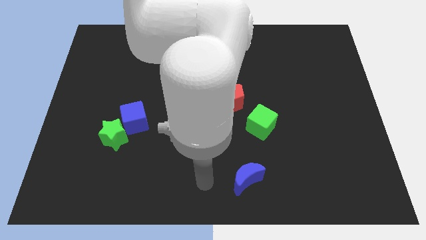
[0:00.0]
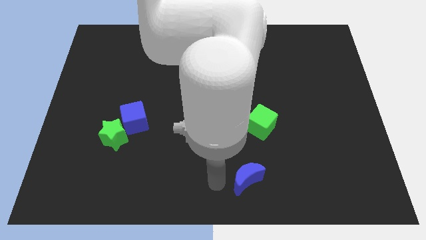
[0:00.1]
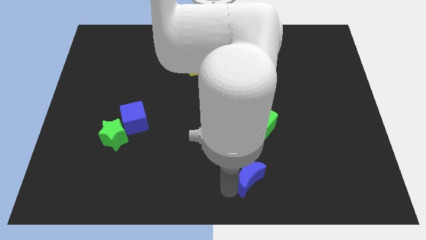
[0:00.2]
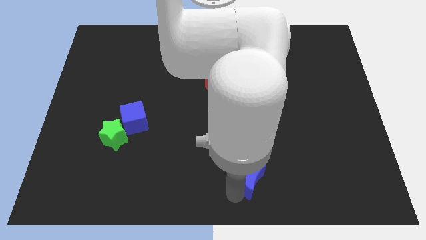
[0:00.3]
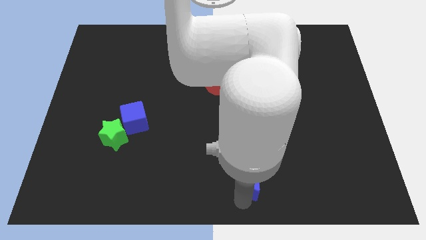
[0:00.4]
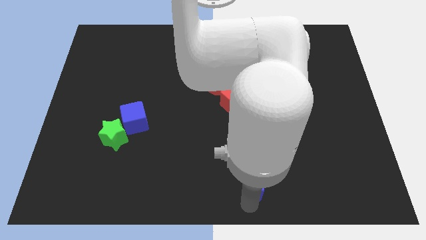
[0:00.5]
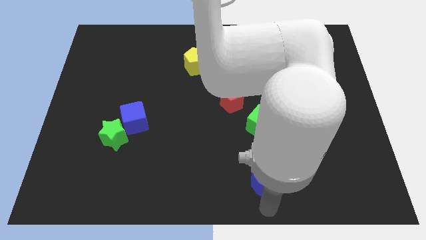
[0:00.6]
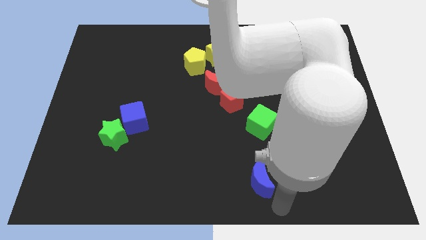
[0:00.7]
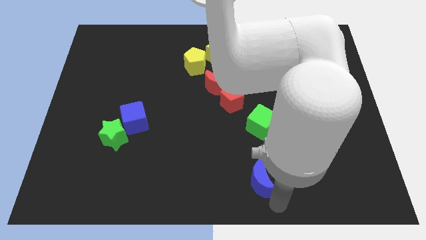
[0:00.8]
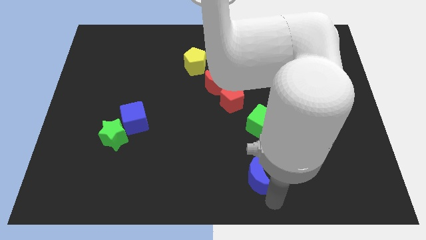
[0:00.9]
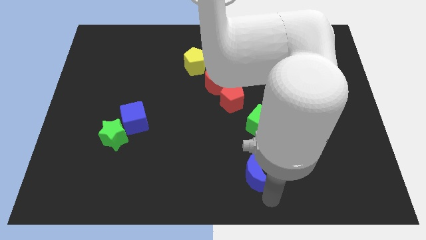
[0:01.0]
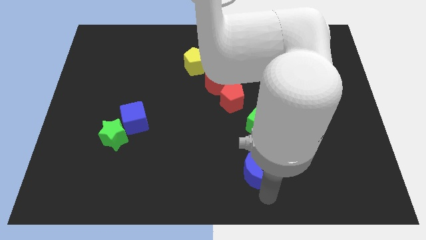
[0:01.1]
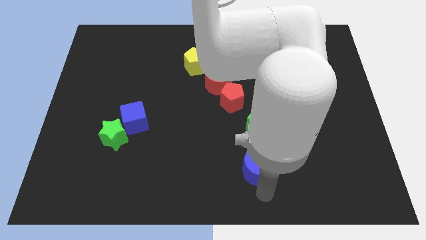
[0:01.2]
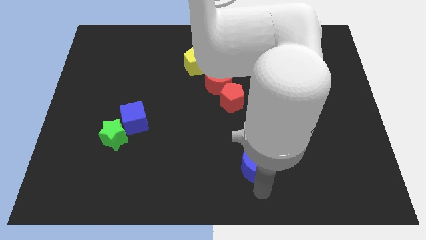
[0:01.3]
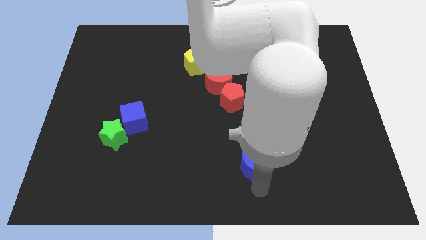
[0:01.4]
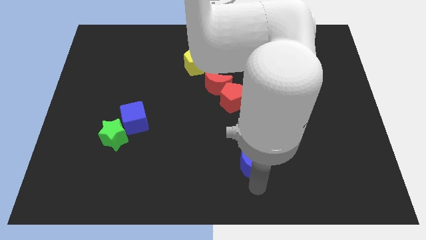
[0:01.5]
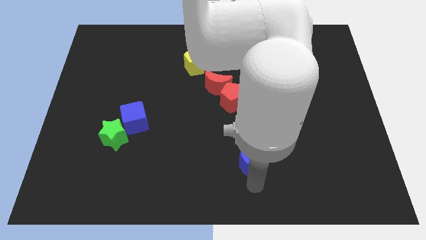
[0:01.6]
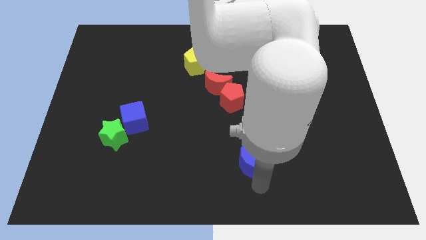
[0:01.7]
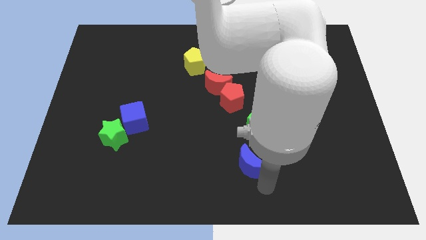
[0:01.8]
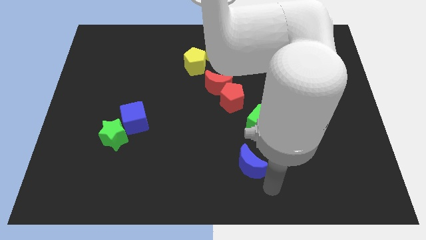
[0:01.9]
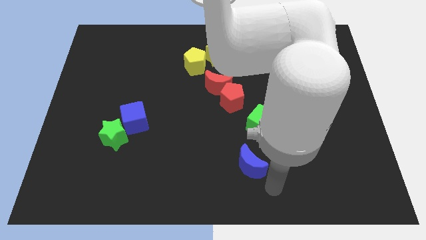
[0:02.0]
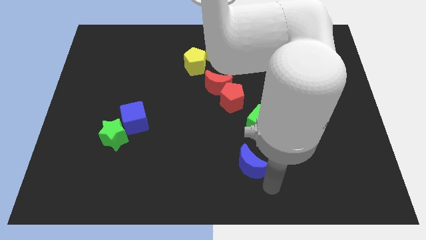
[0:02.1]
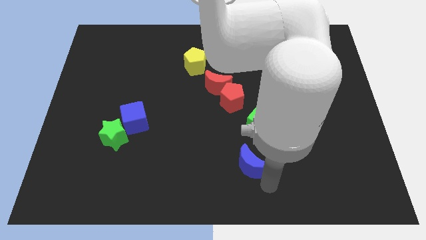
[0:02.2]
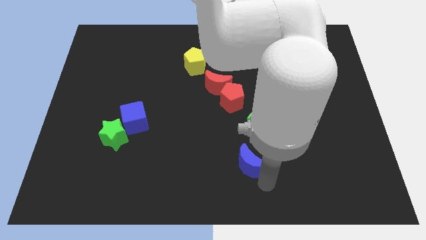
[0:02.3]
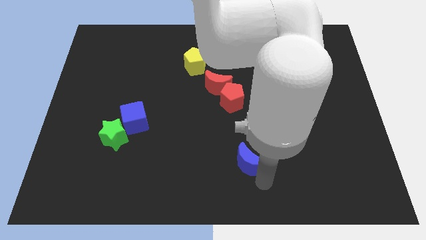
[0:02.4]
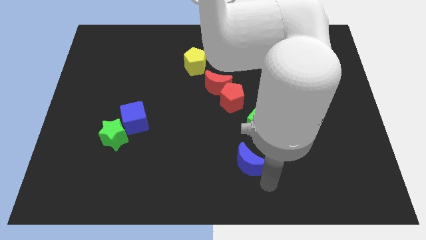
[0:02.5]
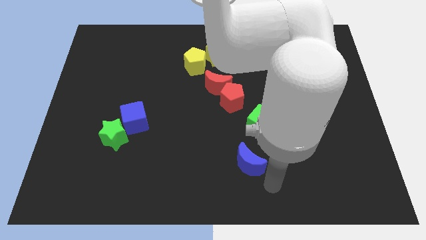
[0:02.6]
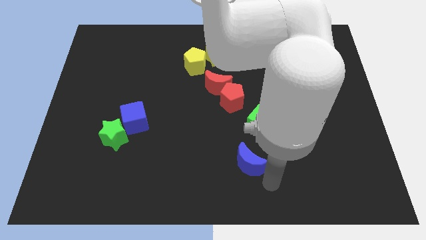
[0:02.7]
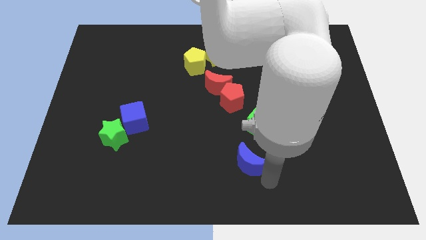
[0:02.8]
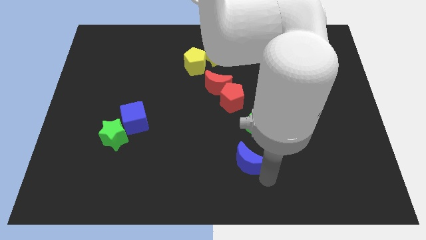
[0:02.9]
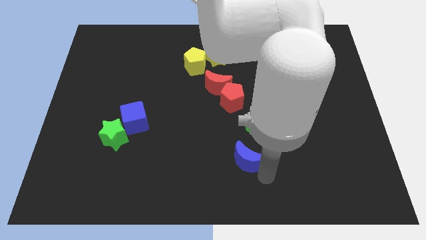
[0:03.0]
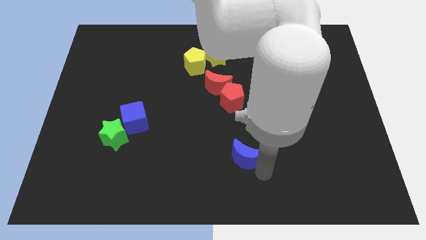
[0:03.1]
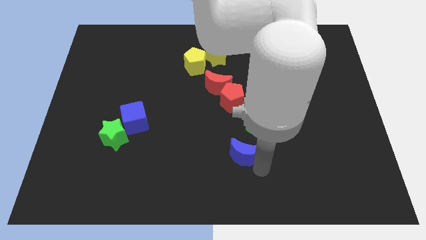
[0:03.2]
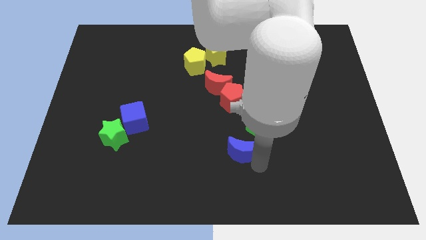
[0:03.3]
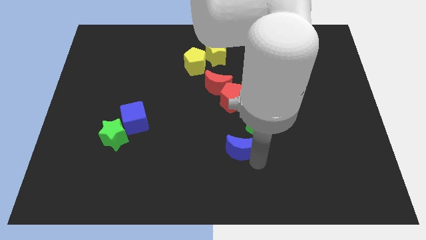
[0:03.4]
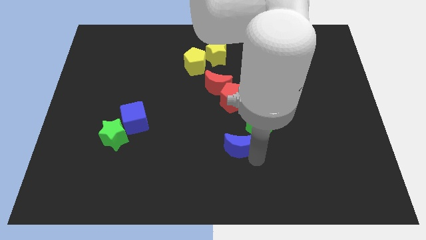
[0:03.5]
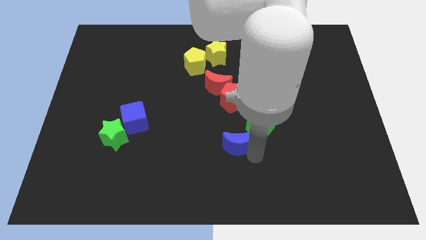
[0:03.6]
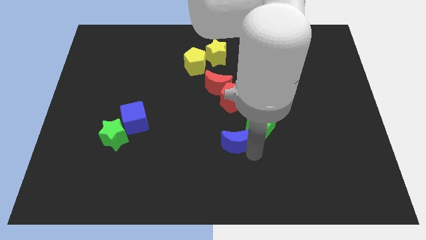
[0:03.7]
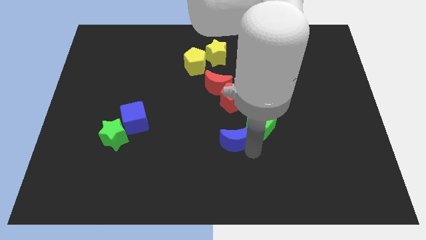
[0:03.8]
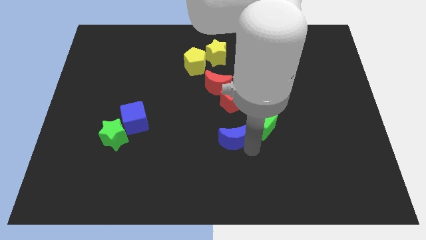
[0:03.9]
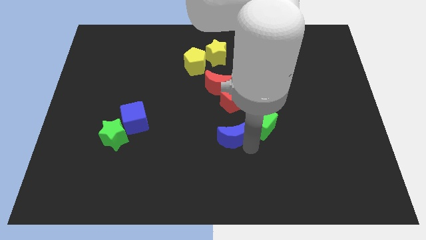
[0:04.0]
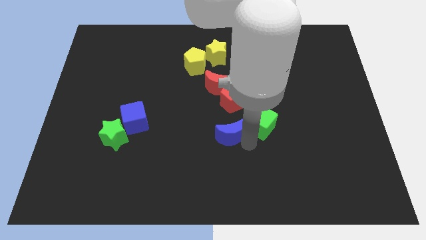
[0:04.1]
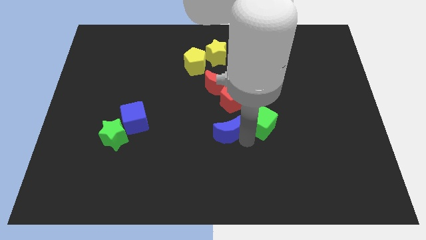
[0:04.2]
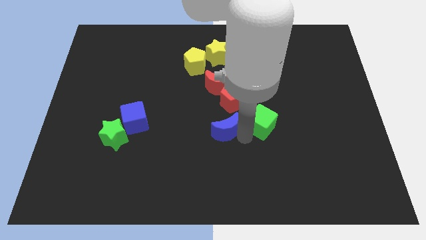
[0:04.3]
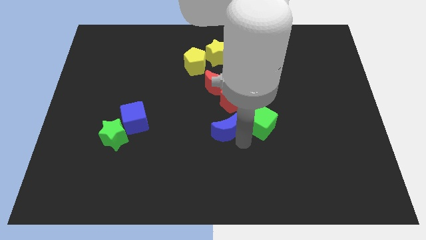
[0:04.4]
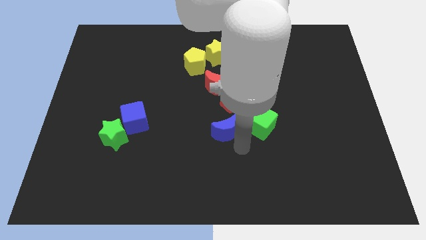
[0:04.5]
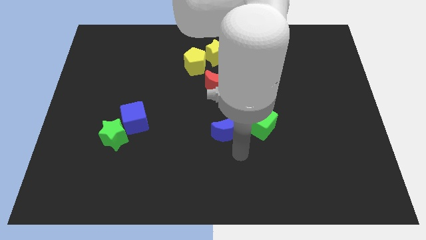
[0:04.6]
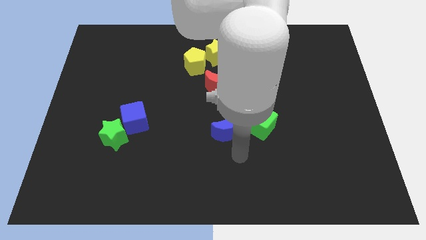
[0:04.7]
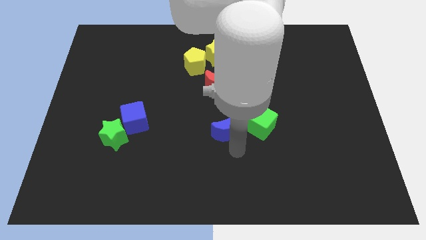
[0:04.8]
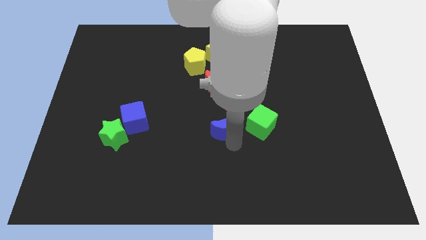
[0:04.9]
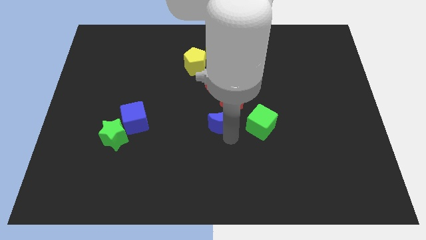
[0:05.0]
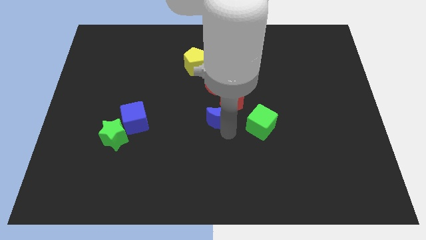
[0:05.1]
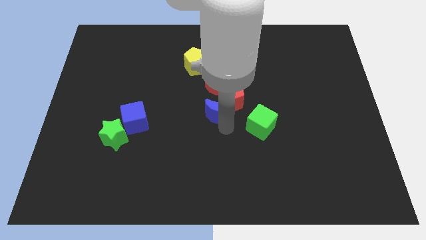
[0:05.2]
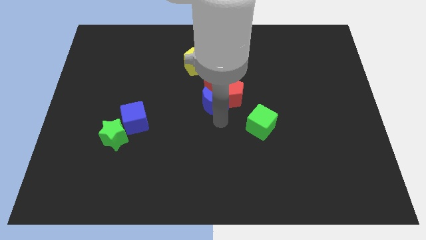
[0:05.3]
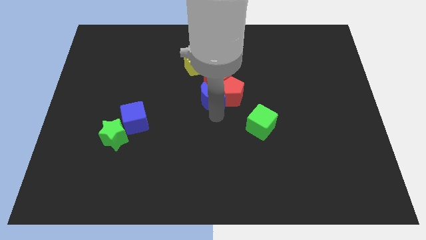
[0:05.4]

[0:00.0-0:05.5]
push the blue moon to the red moon

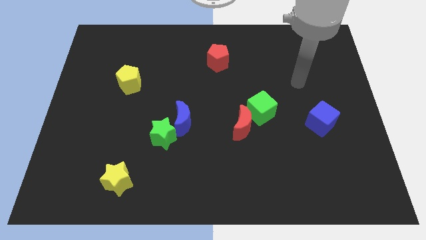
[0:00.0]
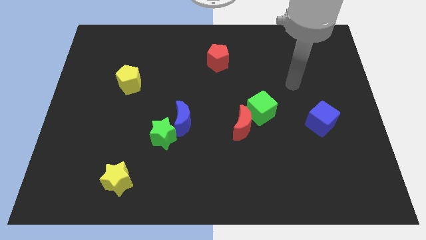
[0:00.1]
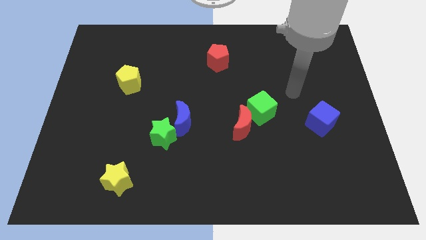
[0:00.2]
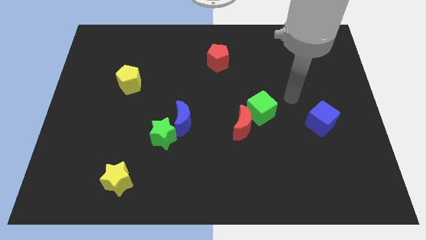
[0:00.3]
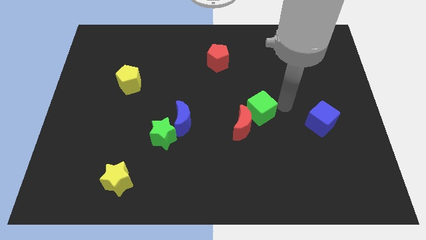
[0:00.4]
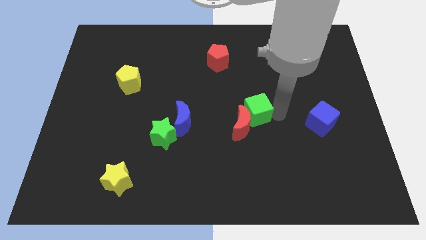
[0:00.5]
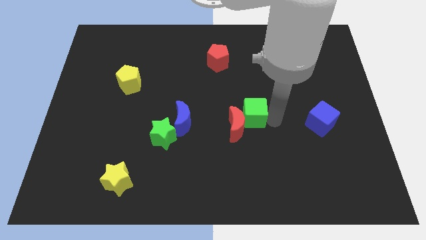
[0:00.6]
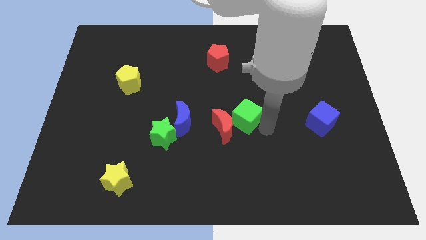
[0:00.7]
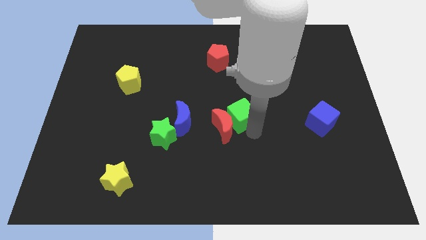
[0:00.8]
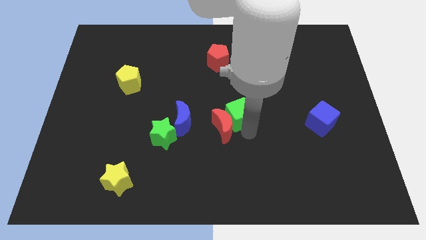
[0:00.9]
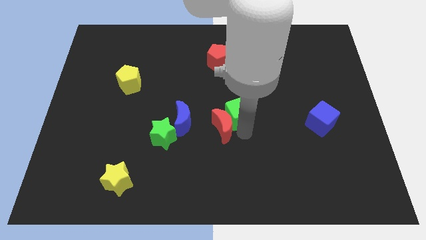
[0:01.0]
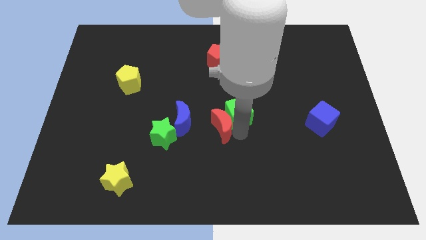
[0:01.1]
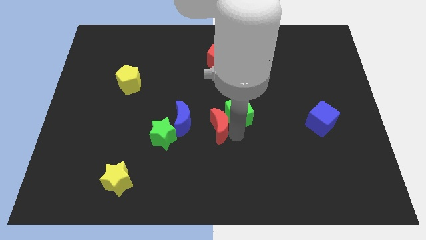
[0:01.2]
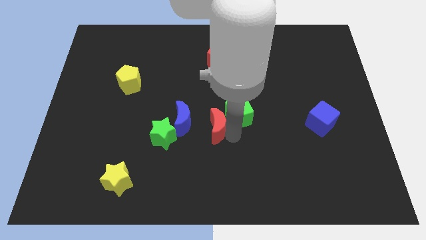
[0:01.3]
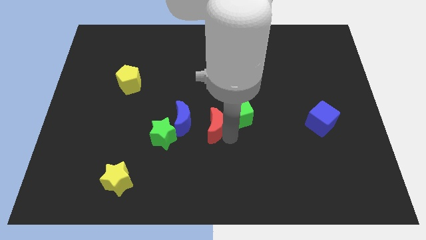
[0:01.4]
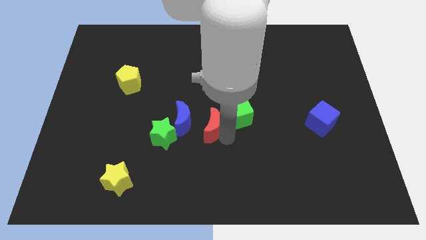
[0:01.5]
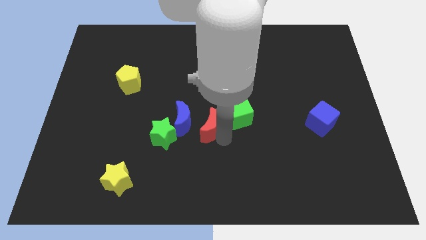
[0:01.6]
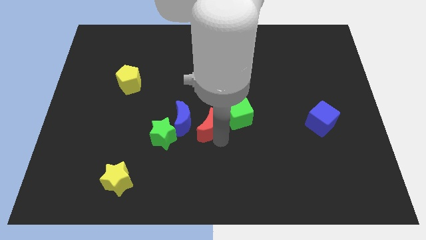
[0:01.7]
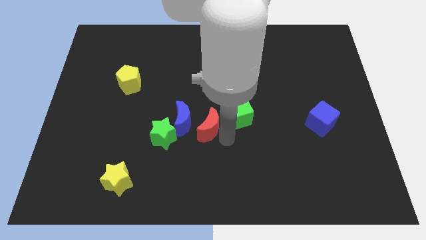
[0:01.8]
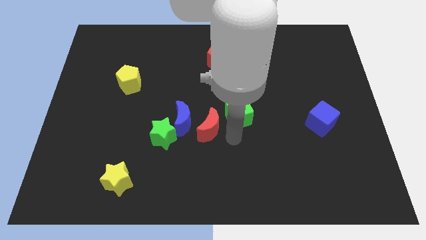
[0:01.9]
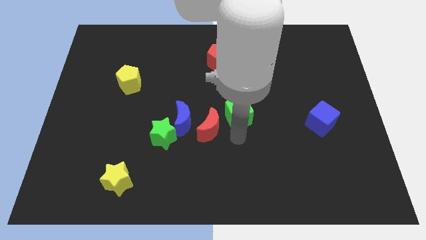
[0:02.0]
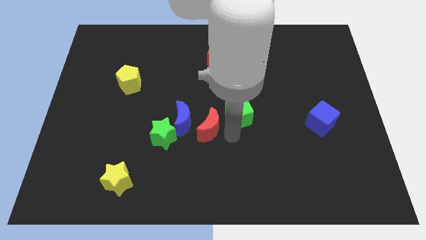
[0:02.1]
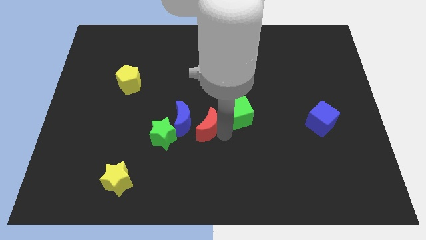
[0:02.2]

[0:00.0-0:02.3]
put the red moon to the blue moon
